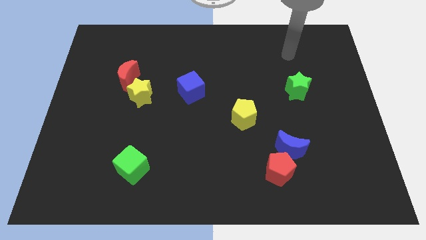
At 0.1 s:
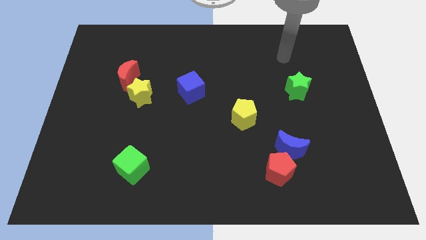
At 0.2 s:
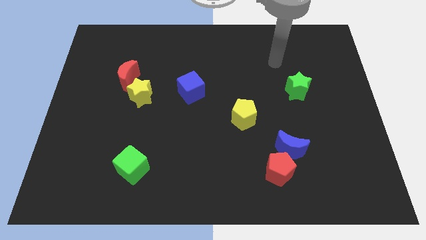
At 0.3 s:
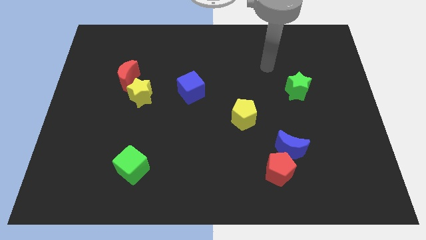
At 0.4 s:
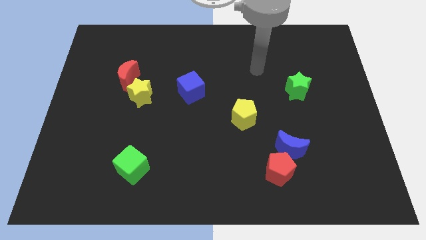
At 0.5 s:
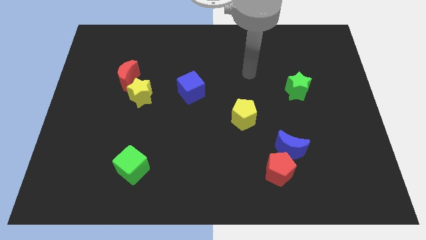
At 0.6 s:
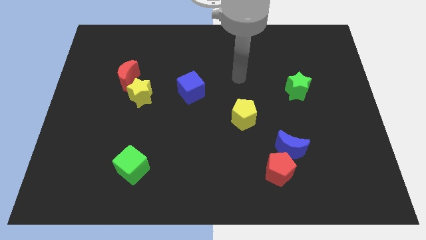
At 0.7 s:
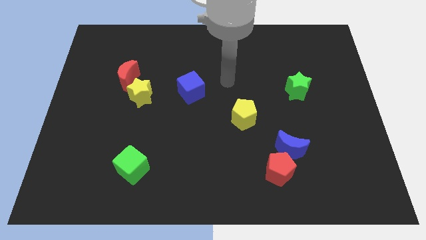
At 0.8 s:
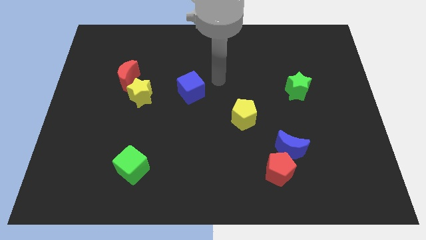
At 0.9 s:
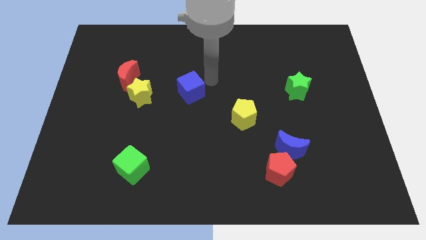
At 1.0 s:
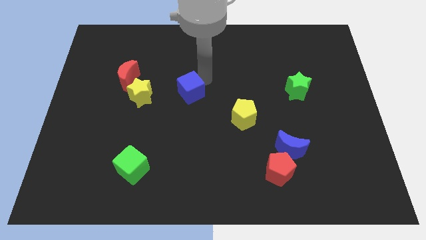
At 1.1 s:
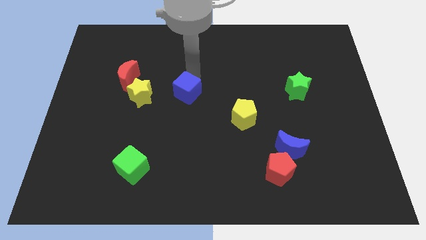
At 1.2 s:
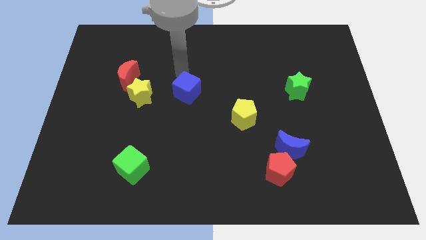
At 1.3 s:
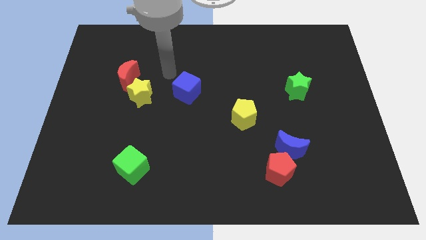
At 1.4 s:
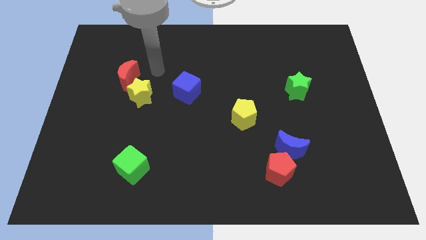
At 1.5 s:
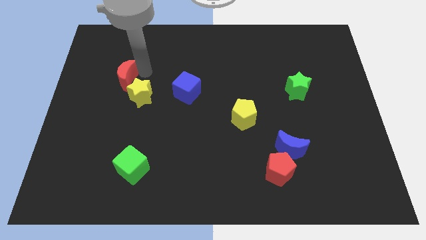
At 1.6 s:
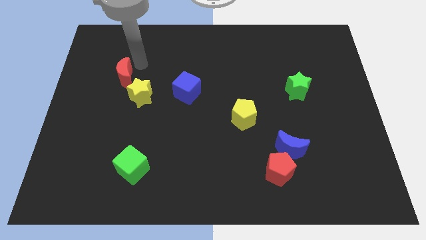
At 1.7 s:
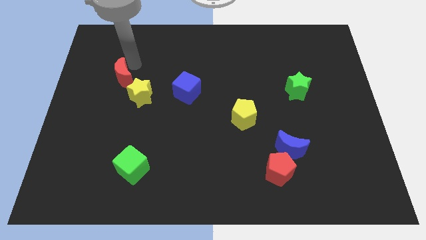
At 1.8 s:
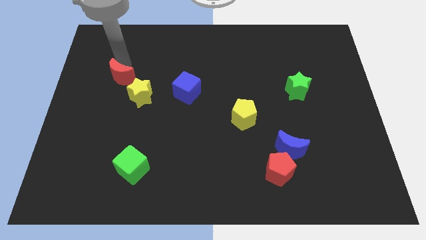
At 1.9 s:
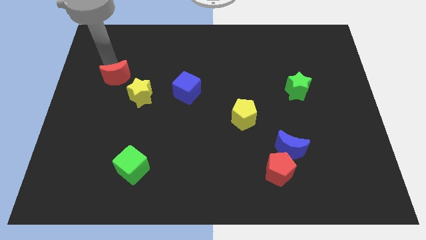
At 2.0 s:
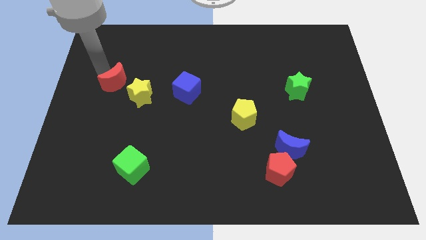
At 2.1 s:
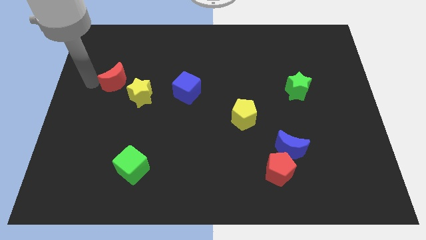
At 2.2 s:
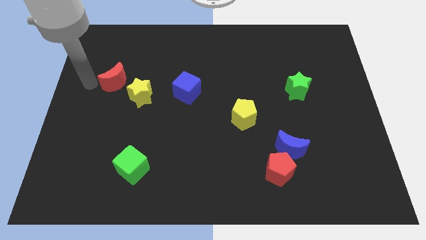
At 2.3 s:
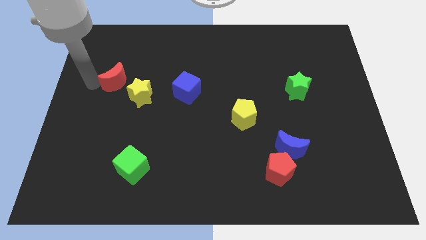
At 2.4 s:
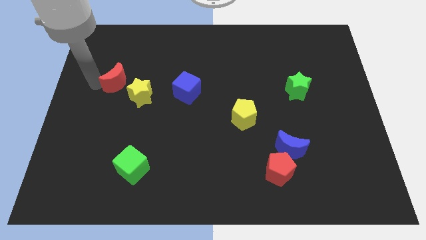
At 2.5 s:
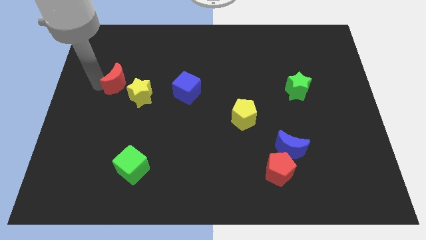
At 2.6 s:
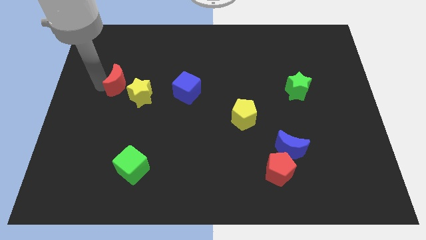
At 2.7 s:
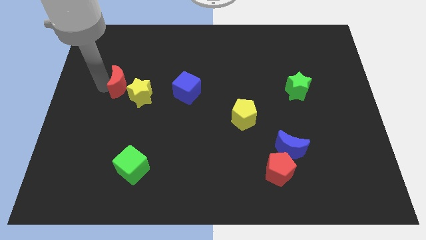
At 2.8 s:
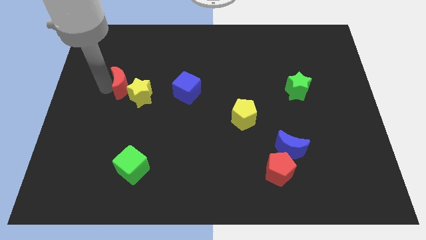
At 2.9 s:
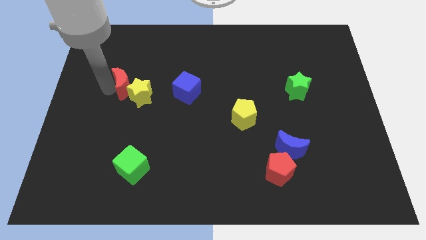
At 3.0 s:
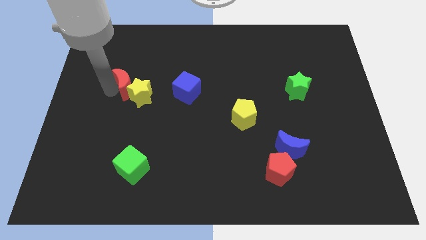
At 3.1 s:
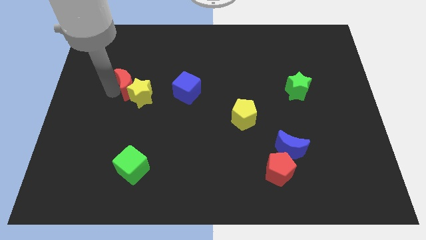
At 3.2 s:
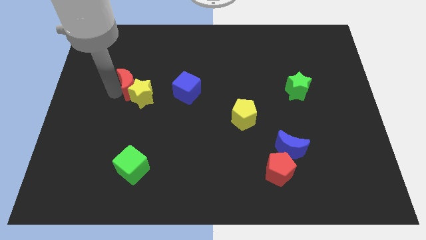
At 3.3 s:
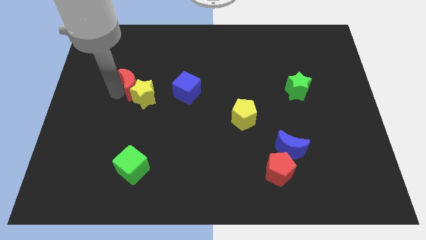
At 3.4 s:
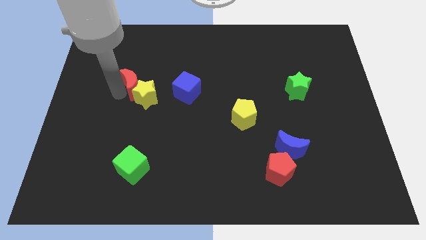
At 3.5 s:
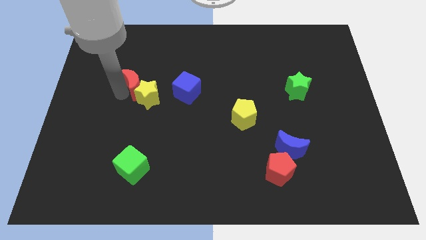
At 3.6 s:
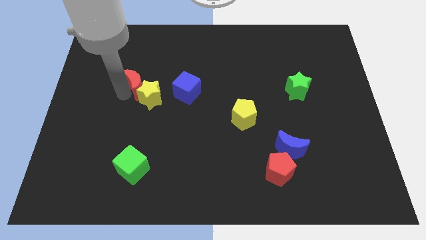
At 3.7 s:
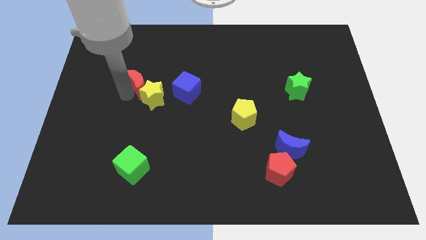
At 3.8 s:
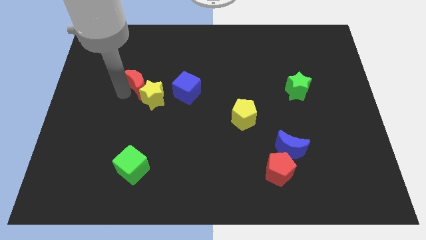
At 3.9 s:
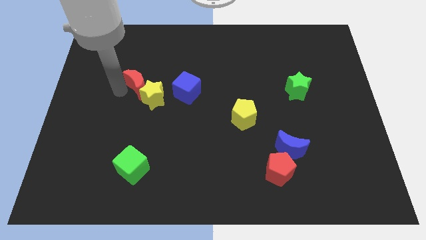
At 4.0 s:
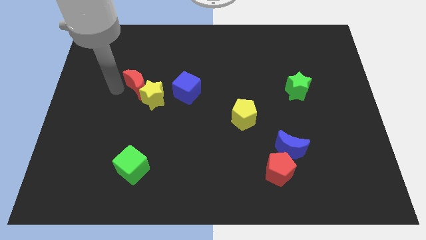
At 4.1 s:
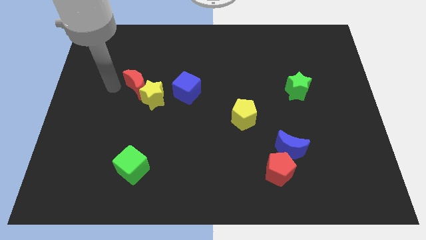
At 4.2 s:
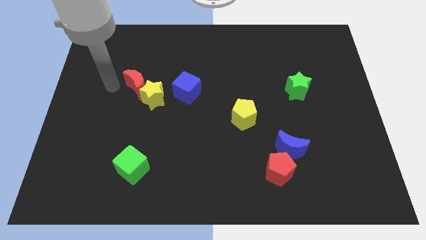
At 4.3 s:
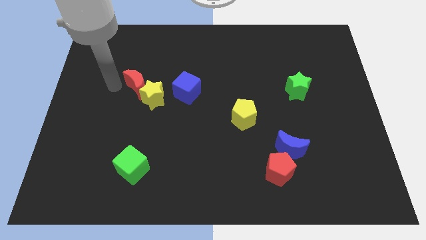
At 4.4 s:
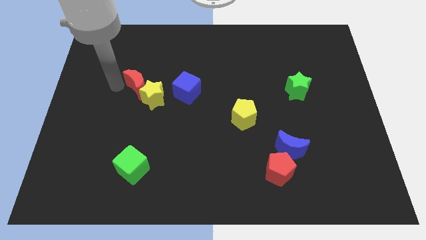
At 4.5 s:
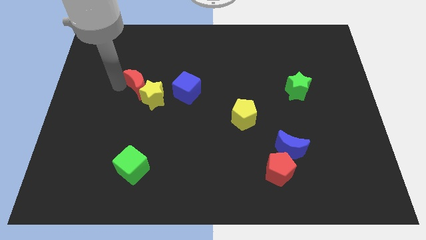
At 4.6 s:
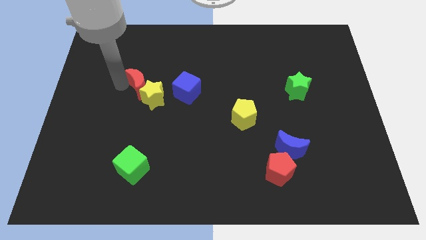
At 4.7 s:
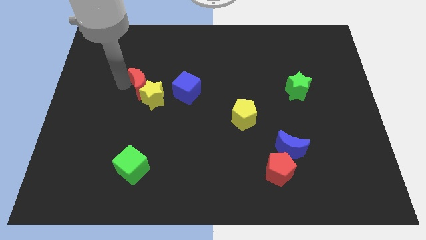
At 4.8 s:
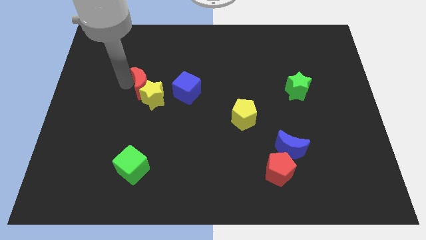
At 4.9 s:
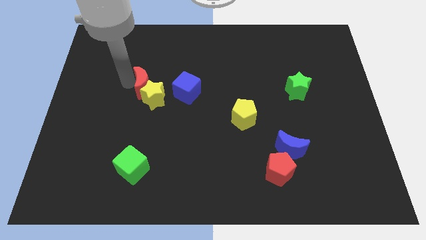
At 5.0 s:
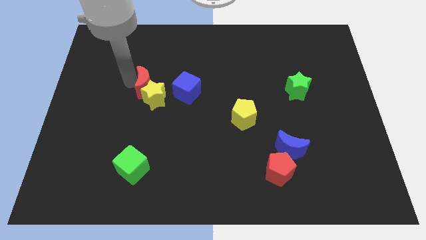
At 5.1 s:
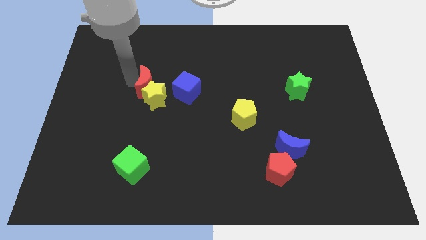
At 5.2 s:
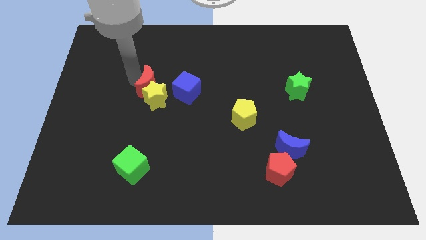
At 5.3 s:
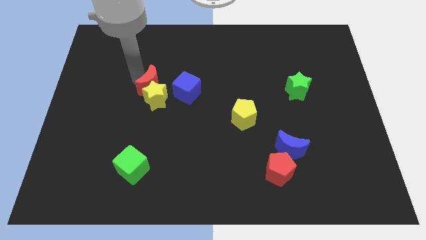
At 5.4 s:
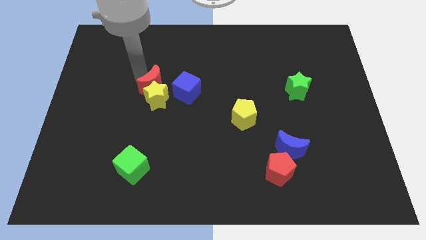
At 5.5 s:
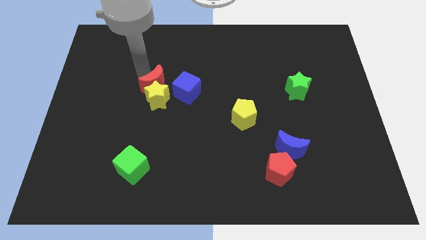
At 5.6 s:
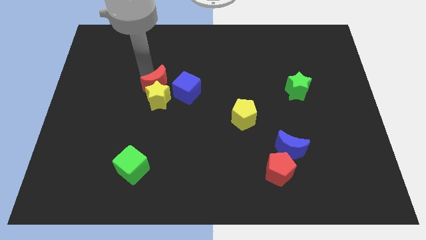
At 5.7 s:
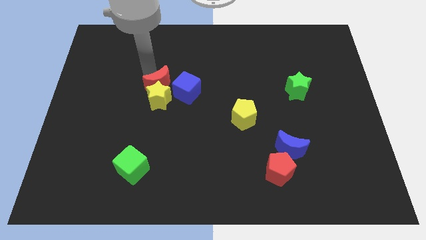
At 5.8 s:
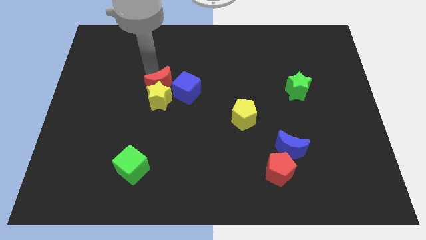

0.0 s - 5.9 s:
move the red moon diagonally down and to the right a bit

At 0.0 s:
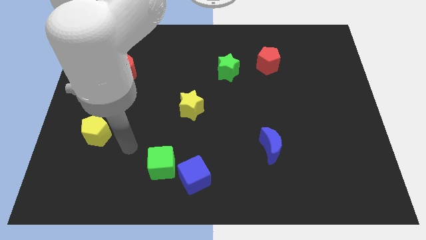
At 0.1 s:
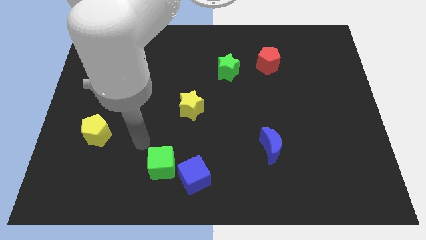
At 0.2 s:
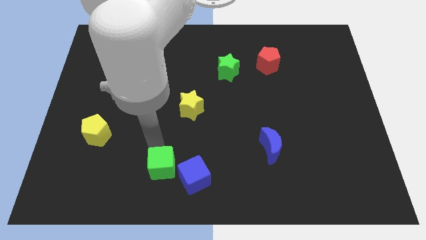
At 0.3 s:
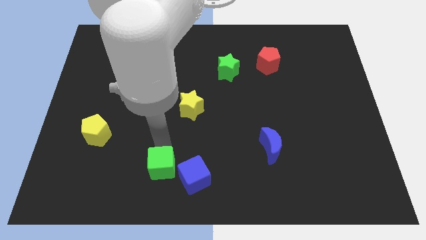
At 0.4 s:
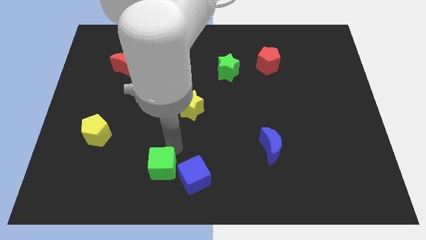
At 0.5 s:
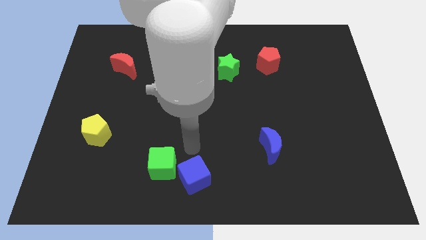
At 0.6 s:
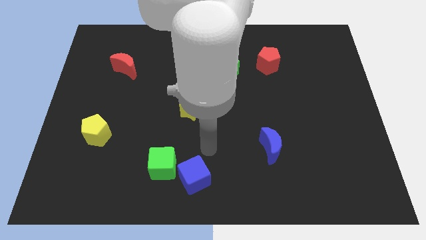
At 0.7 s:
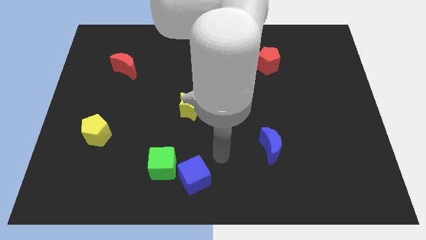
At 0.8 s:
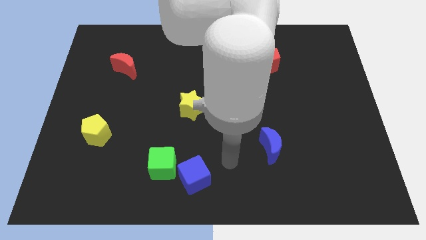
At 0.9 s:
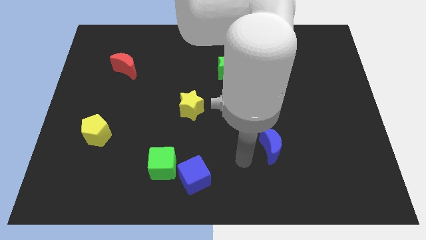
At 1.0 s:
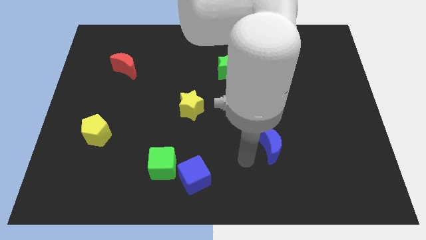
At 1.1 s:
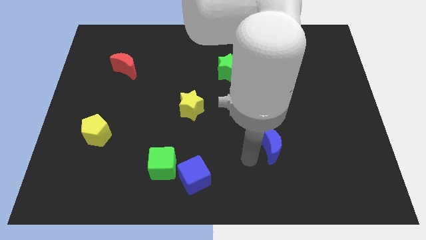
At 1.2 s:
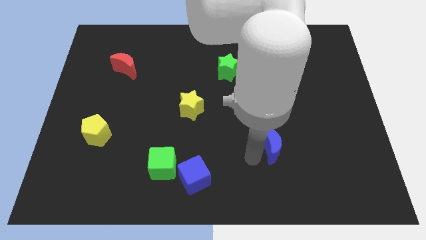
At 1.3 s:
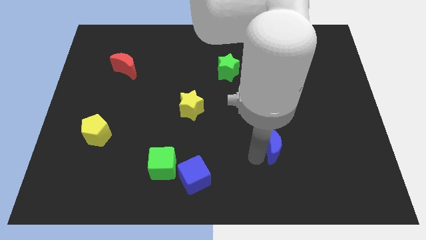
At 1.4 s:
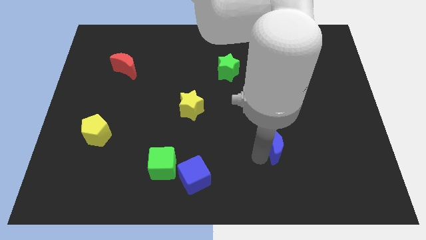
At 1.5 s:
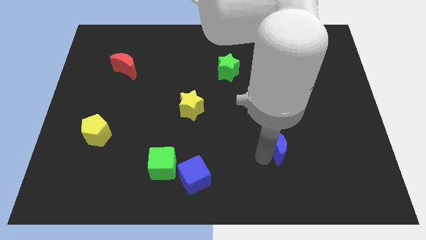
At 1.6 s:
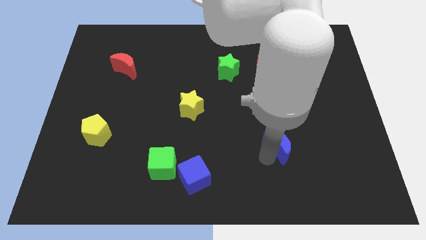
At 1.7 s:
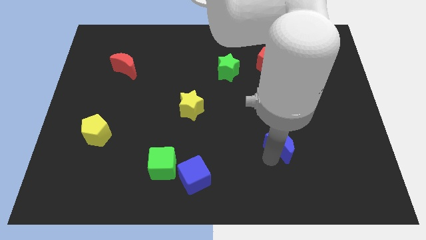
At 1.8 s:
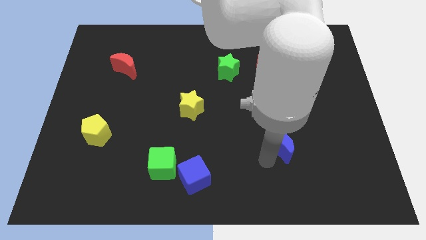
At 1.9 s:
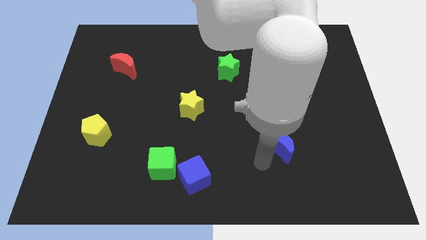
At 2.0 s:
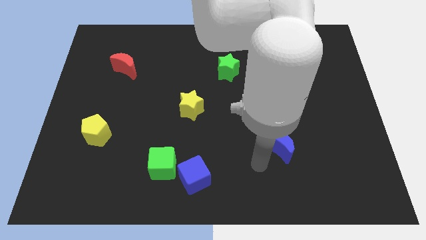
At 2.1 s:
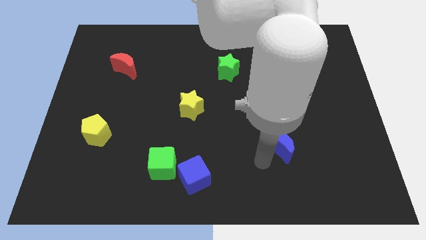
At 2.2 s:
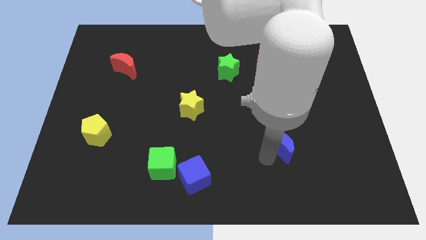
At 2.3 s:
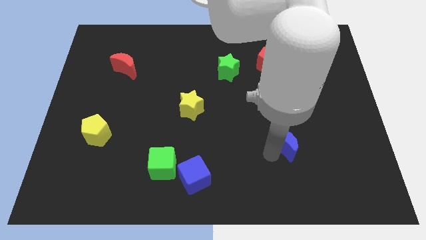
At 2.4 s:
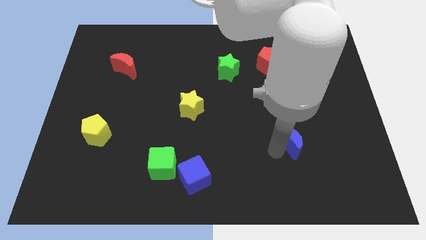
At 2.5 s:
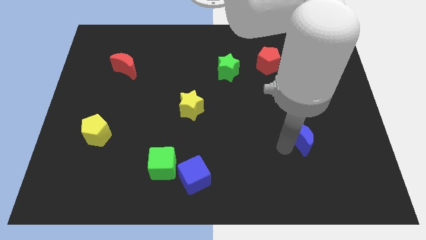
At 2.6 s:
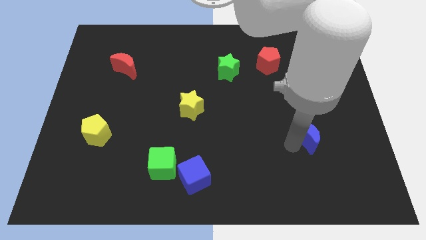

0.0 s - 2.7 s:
slide the blue moon up and then to the right a bit
